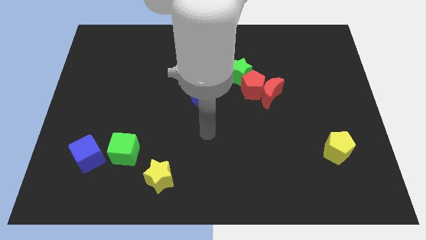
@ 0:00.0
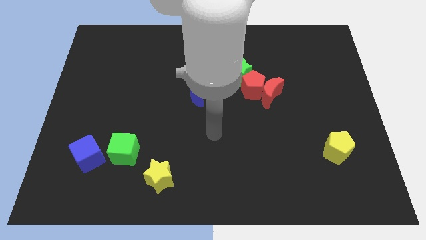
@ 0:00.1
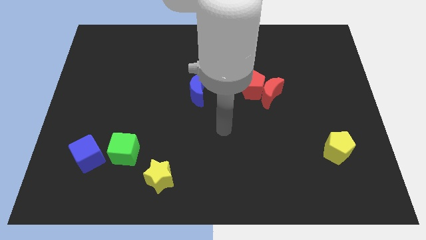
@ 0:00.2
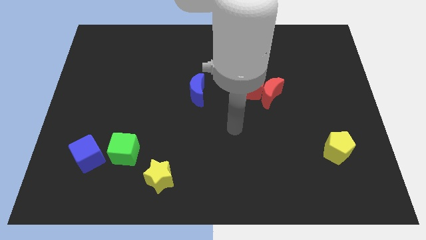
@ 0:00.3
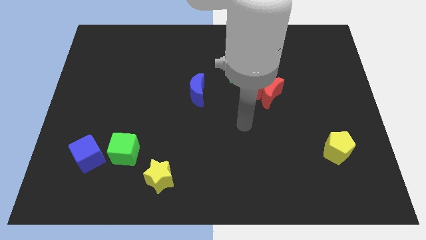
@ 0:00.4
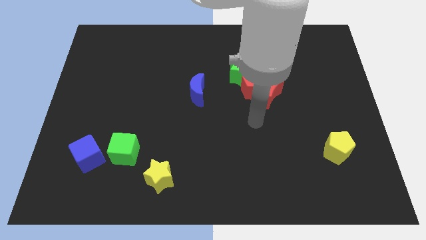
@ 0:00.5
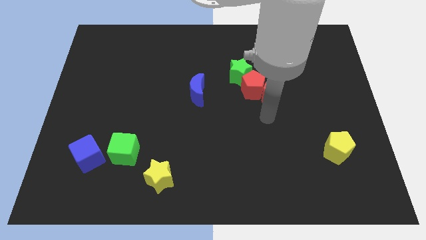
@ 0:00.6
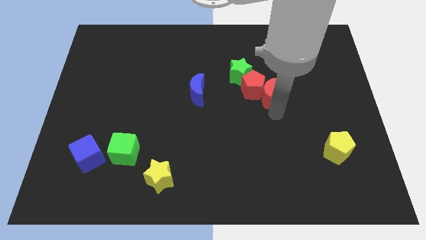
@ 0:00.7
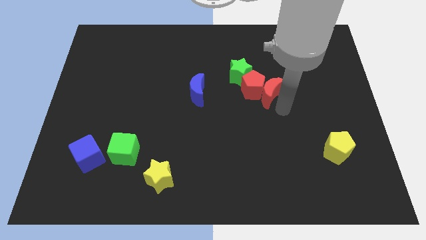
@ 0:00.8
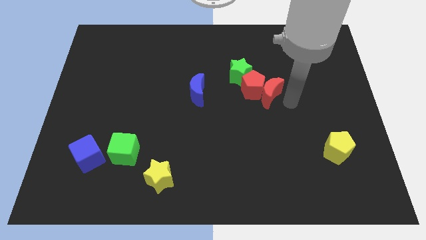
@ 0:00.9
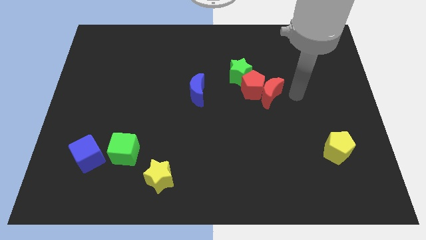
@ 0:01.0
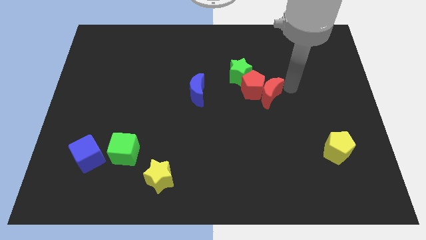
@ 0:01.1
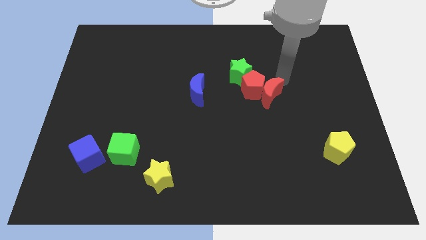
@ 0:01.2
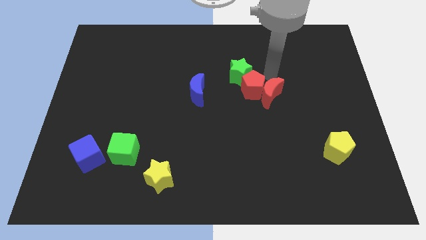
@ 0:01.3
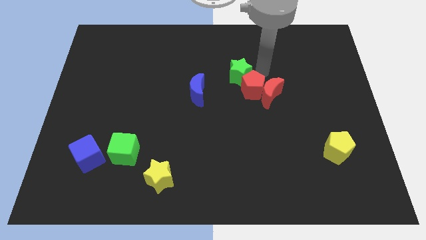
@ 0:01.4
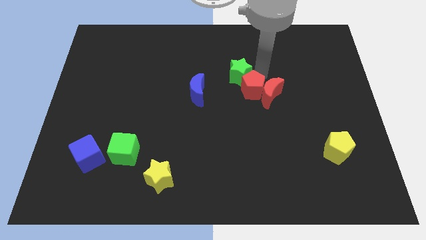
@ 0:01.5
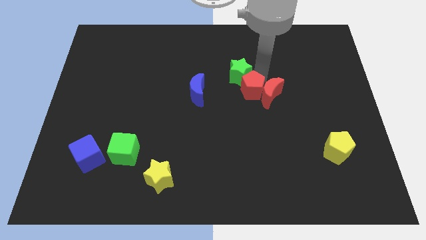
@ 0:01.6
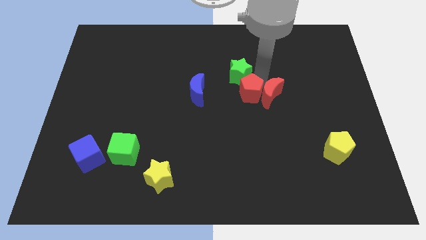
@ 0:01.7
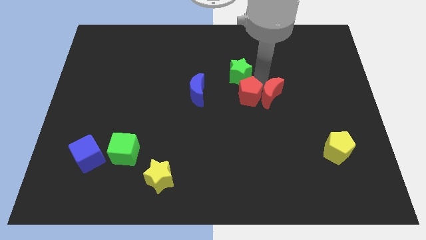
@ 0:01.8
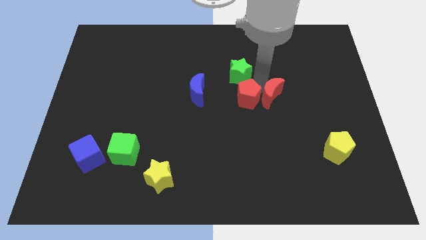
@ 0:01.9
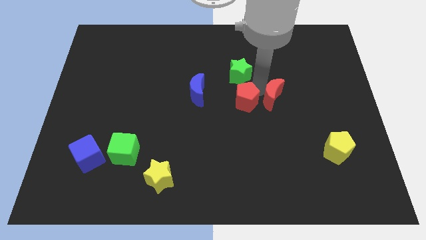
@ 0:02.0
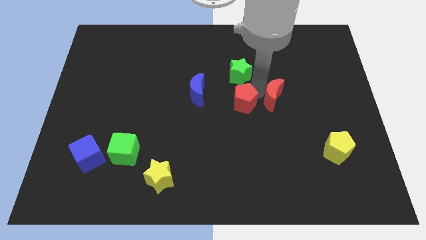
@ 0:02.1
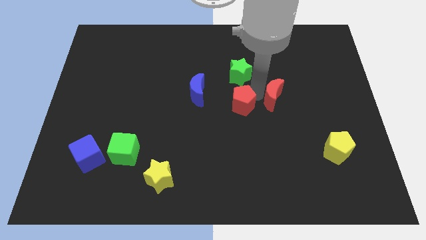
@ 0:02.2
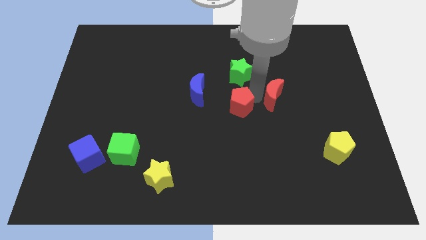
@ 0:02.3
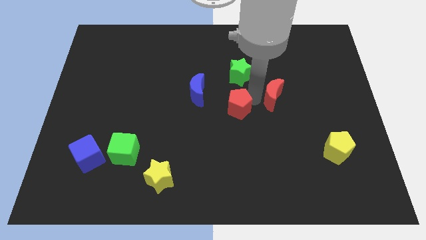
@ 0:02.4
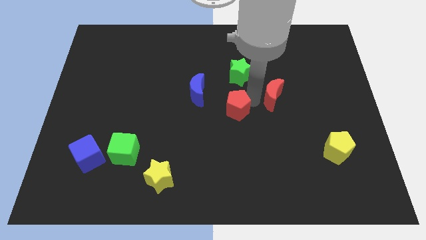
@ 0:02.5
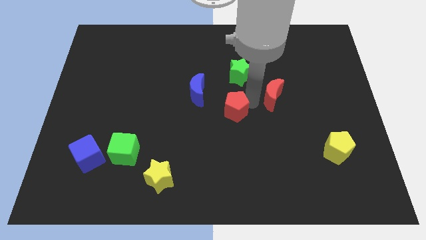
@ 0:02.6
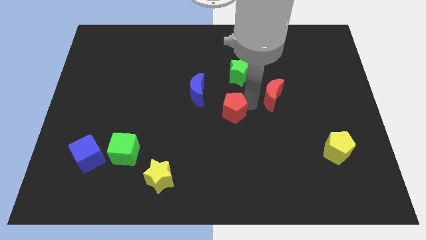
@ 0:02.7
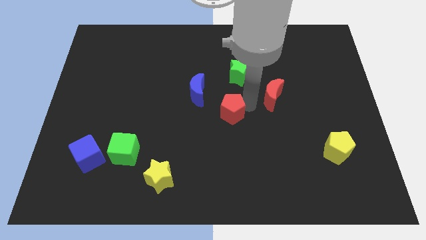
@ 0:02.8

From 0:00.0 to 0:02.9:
separate the red pentagon from the red moon and green star

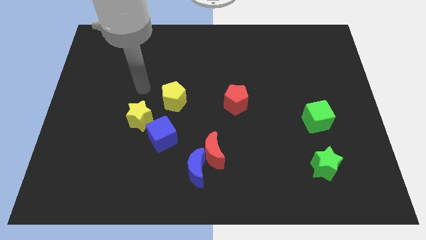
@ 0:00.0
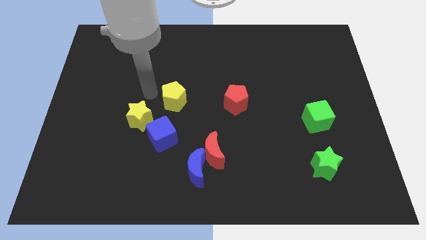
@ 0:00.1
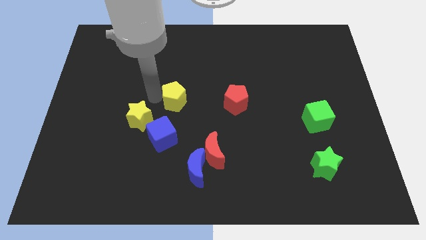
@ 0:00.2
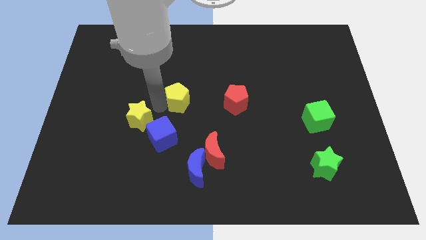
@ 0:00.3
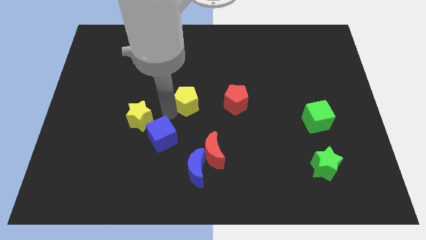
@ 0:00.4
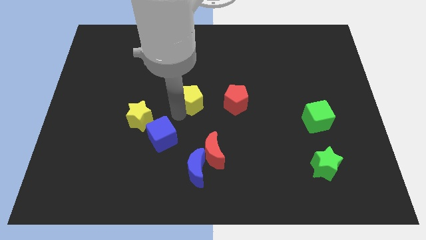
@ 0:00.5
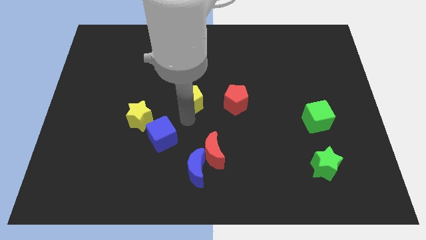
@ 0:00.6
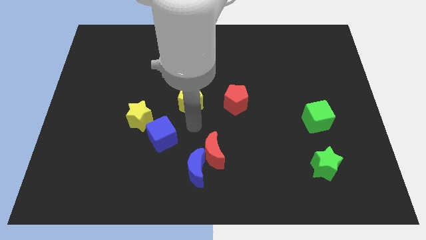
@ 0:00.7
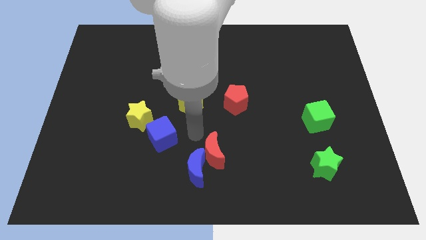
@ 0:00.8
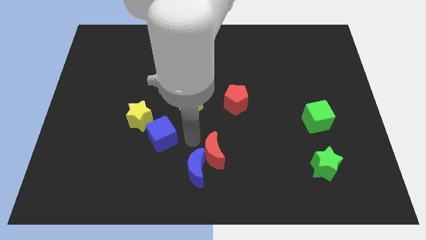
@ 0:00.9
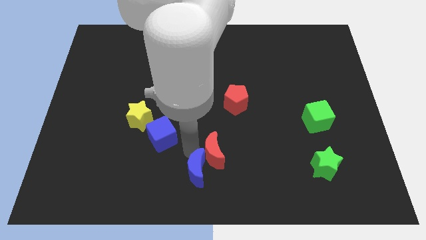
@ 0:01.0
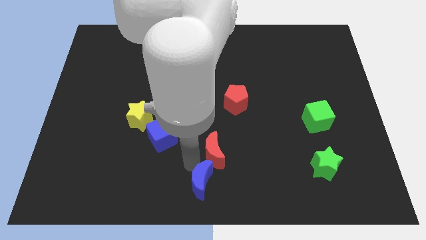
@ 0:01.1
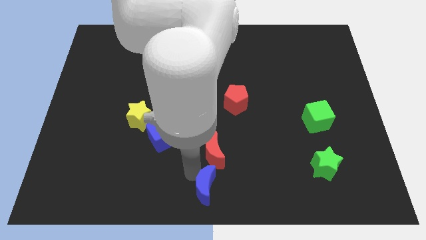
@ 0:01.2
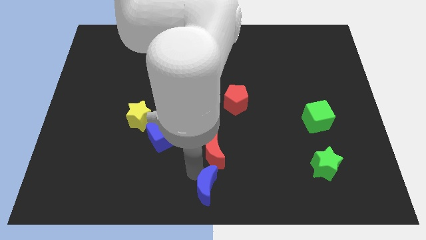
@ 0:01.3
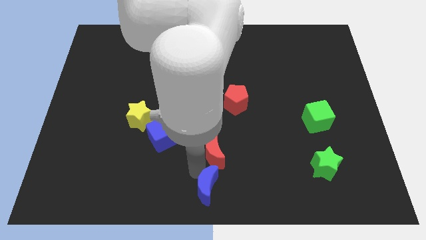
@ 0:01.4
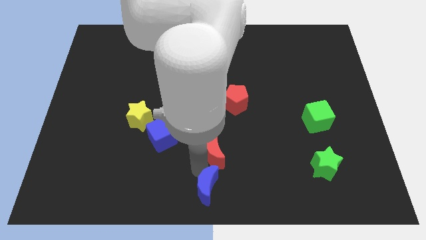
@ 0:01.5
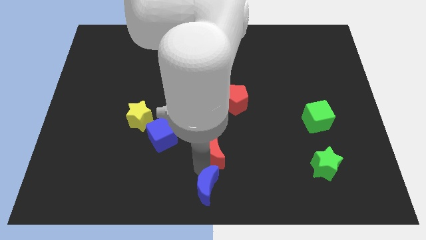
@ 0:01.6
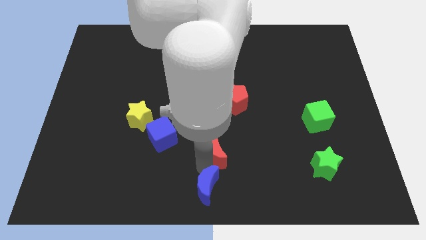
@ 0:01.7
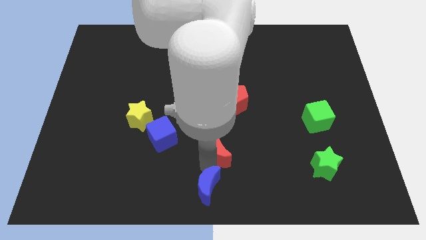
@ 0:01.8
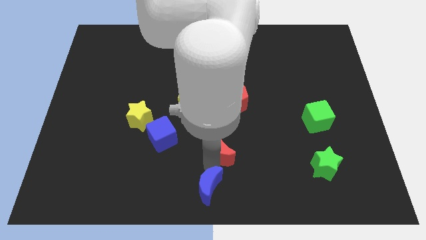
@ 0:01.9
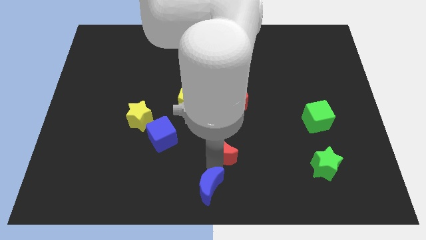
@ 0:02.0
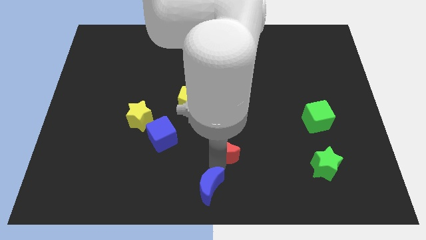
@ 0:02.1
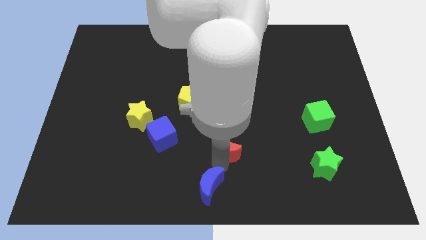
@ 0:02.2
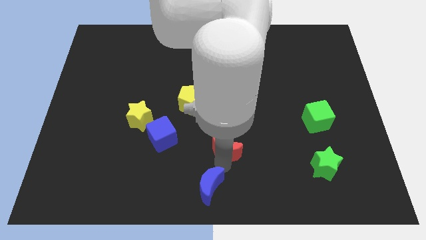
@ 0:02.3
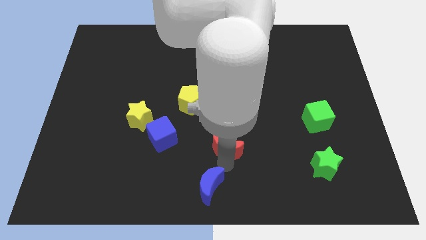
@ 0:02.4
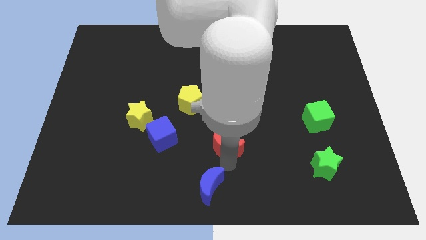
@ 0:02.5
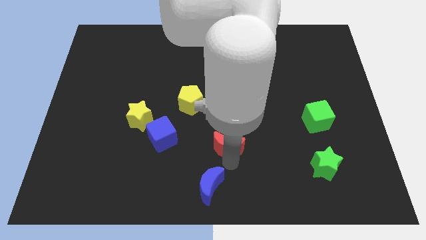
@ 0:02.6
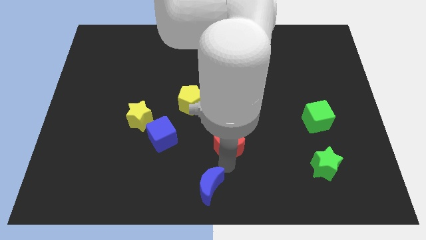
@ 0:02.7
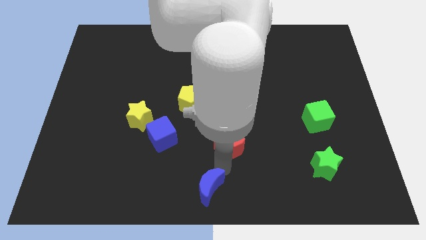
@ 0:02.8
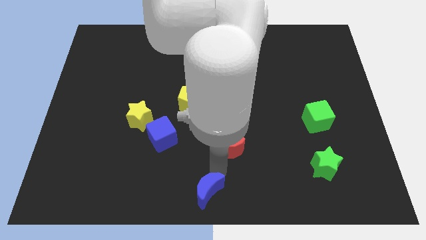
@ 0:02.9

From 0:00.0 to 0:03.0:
separate the red moon from the blue moon

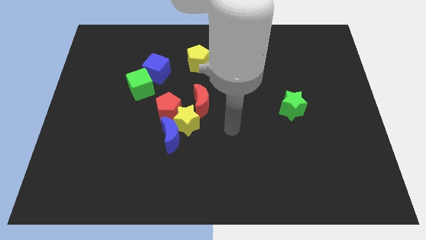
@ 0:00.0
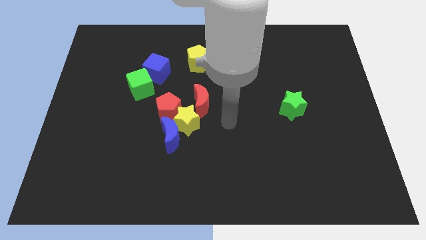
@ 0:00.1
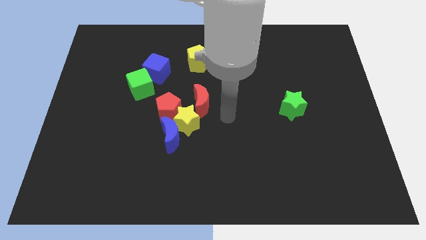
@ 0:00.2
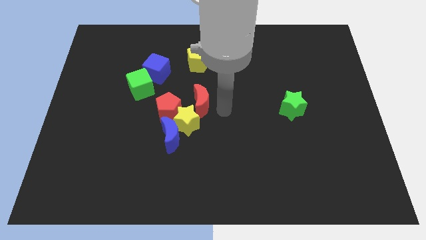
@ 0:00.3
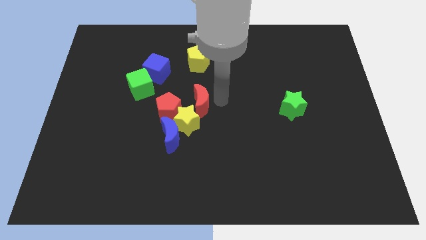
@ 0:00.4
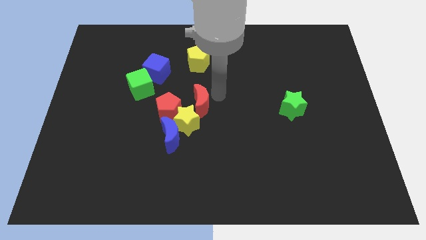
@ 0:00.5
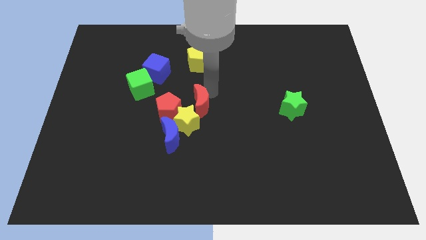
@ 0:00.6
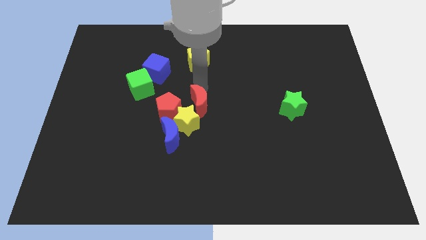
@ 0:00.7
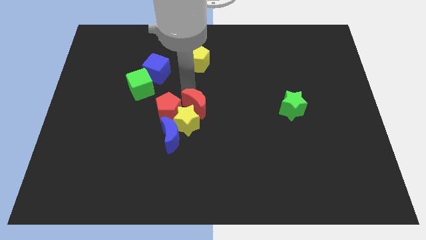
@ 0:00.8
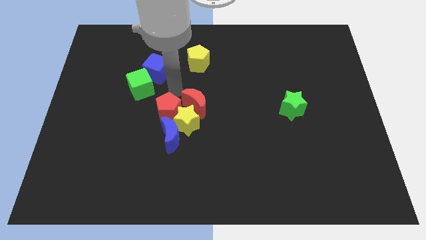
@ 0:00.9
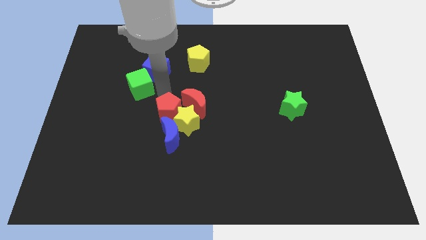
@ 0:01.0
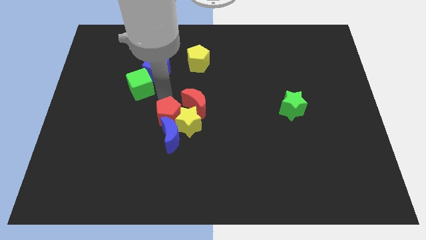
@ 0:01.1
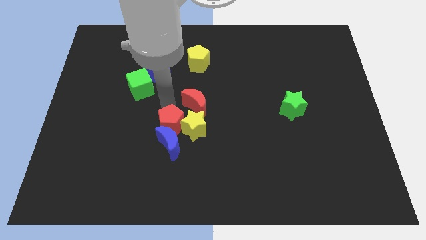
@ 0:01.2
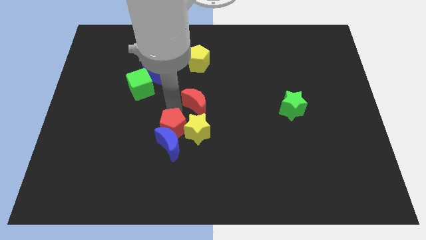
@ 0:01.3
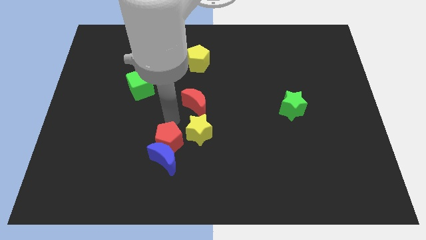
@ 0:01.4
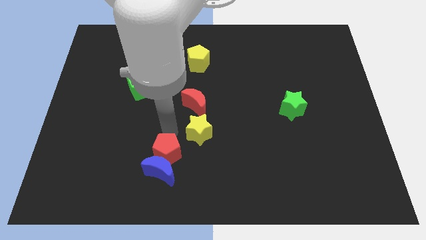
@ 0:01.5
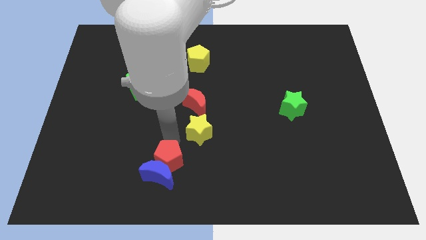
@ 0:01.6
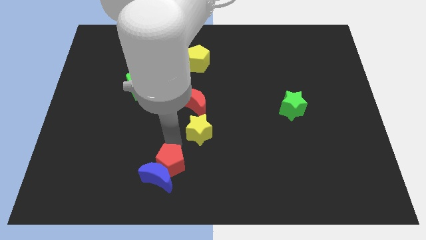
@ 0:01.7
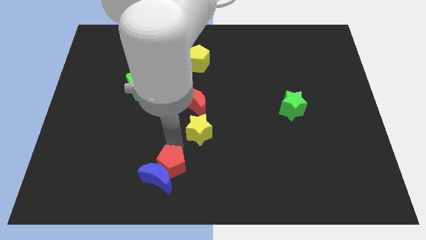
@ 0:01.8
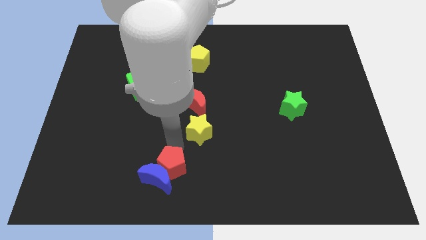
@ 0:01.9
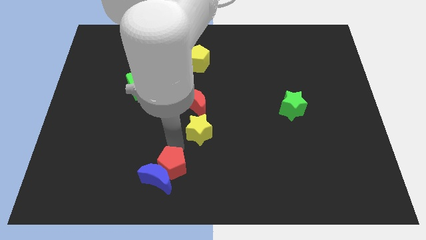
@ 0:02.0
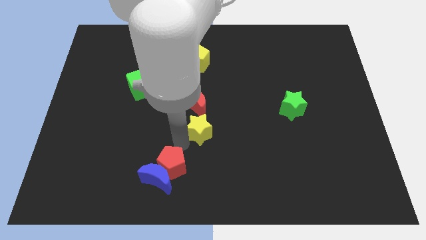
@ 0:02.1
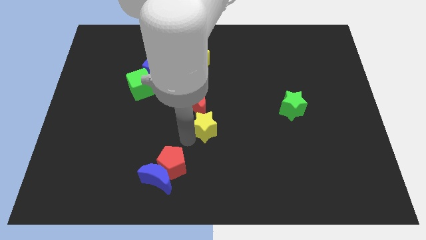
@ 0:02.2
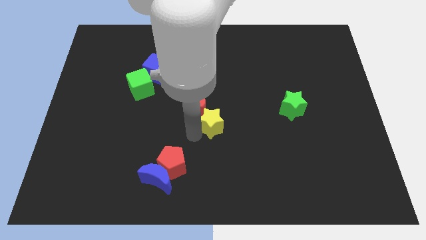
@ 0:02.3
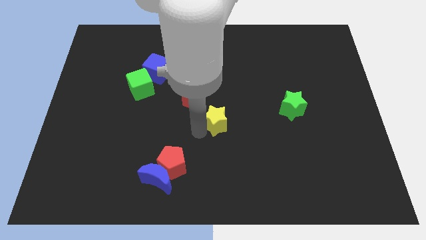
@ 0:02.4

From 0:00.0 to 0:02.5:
separate the yellow star from the blue moon, red pentagon, and red moon

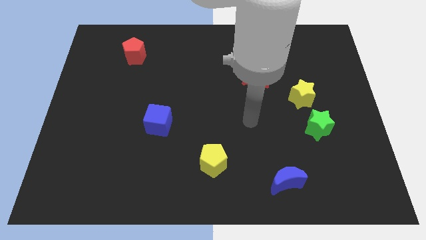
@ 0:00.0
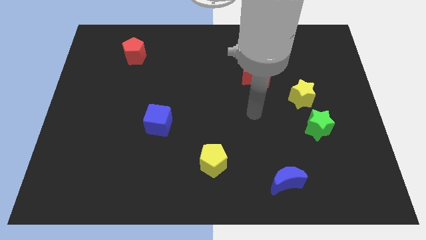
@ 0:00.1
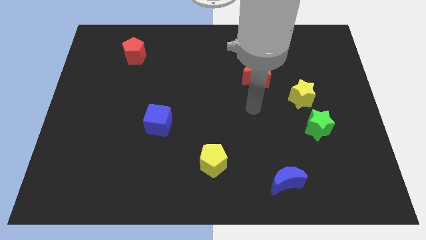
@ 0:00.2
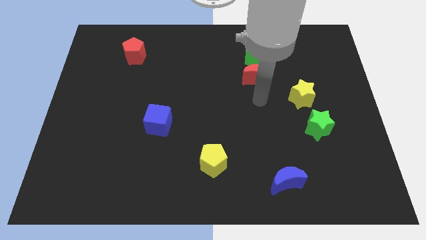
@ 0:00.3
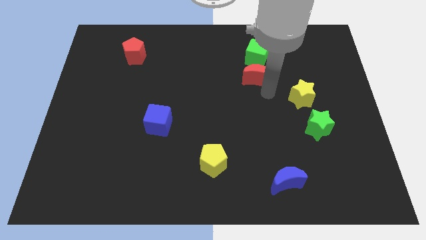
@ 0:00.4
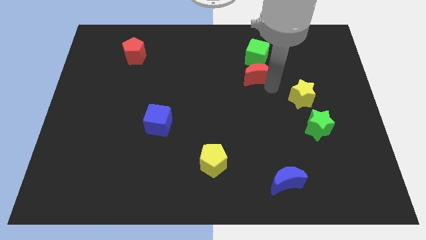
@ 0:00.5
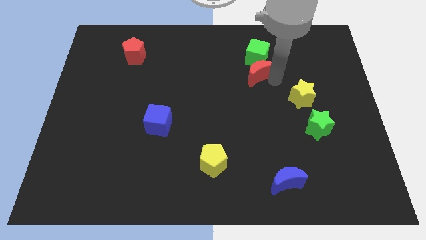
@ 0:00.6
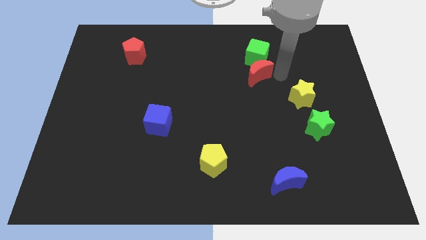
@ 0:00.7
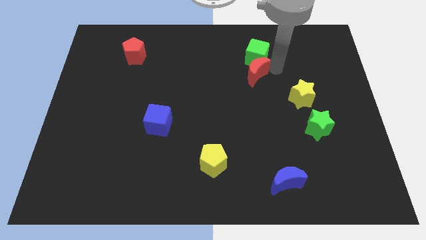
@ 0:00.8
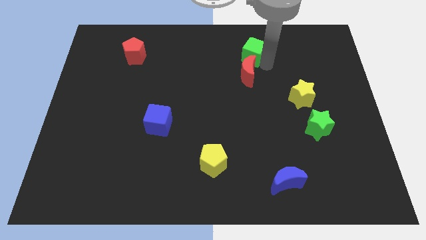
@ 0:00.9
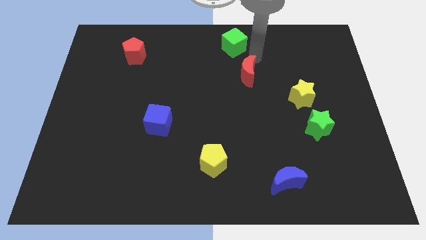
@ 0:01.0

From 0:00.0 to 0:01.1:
move the red moon away from the green cube

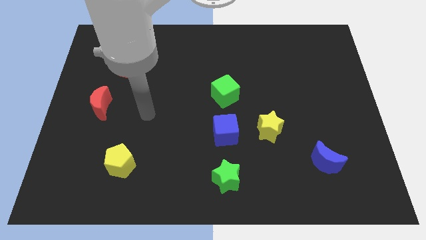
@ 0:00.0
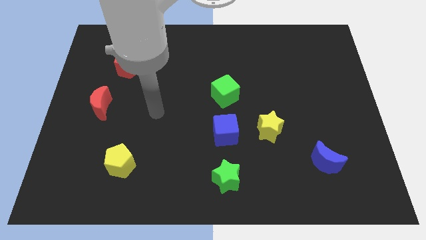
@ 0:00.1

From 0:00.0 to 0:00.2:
separate the blue cube from the yellow star
